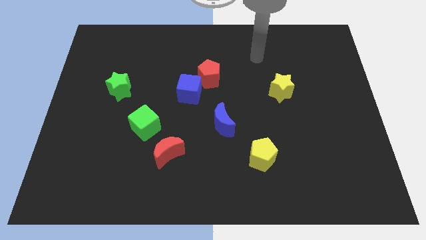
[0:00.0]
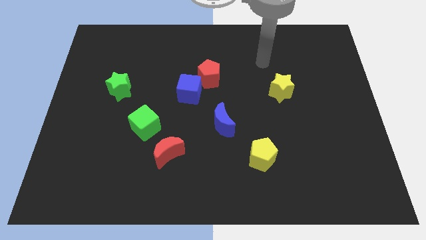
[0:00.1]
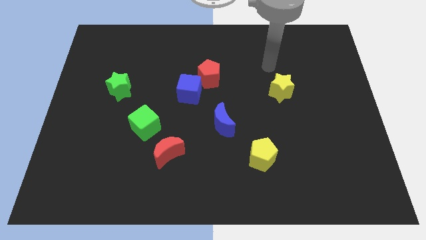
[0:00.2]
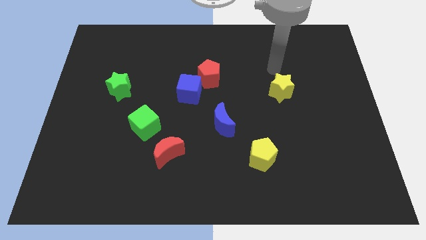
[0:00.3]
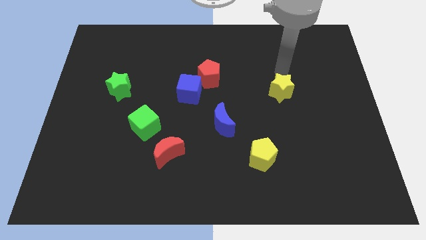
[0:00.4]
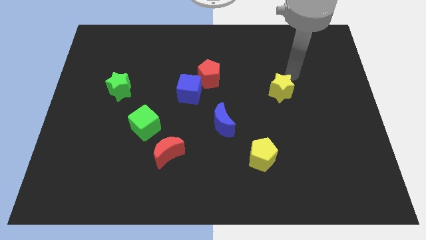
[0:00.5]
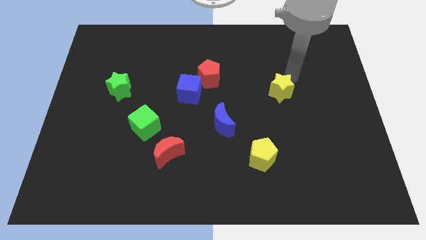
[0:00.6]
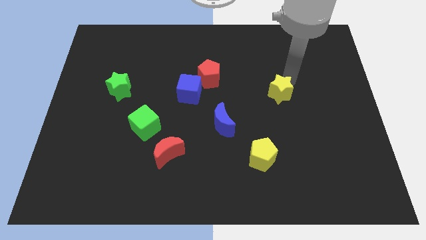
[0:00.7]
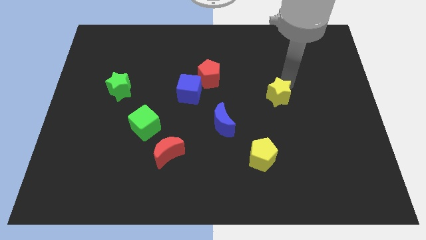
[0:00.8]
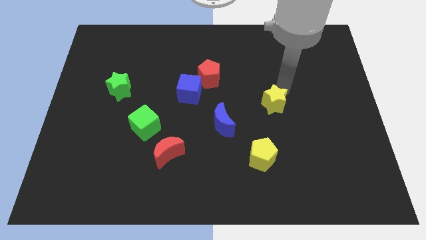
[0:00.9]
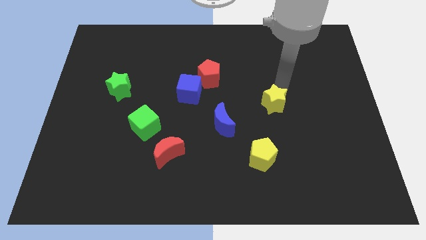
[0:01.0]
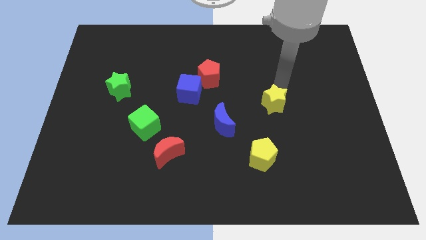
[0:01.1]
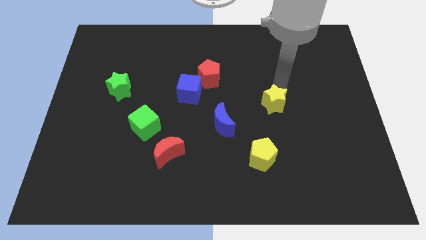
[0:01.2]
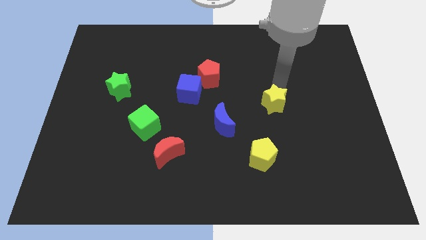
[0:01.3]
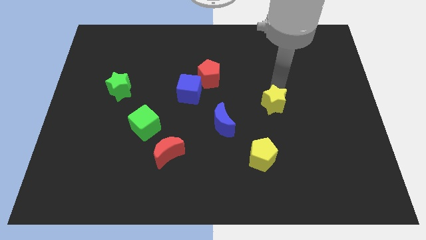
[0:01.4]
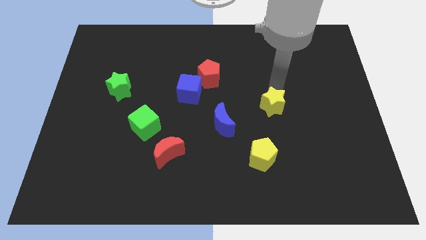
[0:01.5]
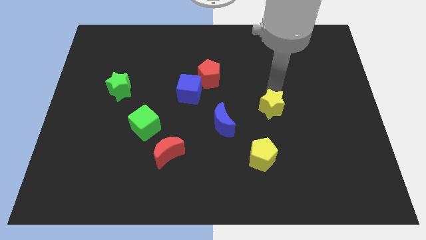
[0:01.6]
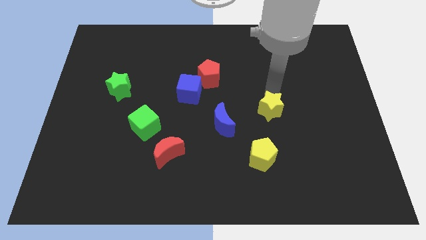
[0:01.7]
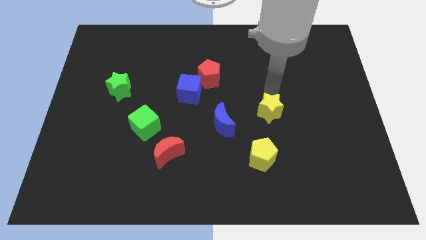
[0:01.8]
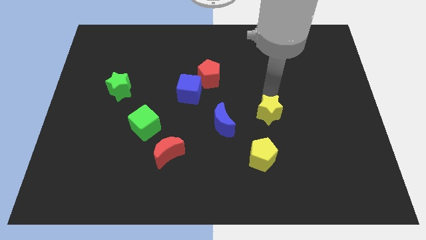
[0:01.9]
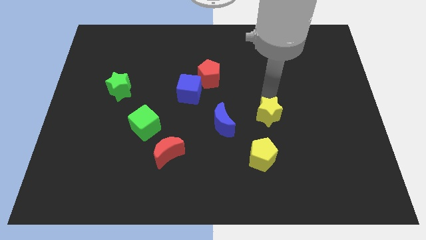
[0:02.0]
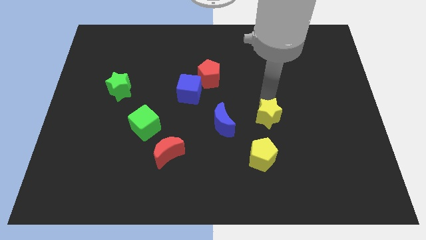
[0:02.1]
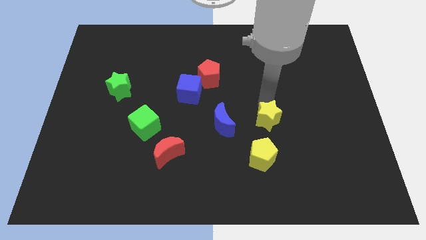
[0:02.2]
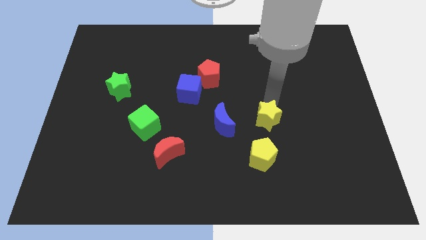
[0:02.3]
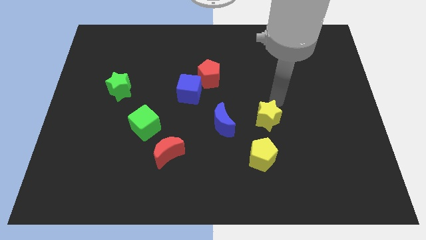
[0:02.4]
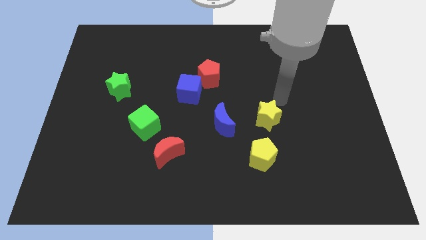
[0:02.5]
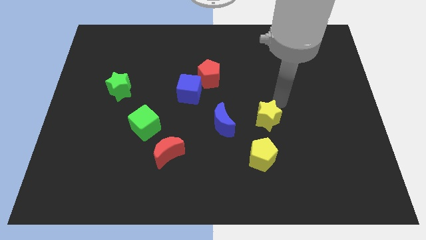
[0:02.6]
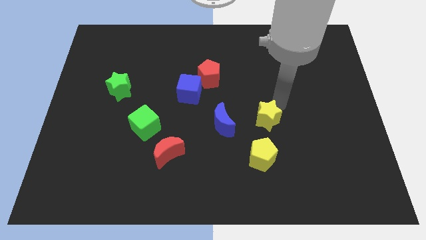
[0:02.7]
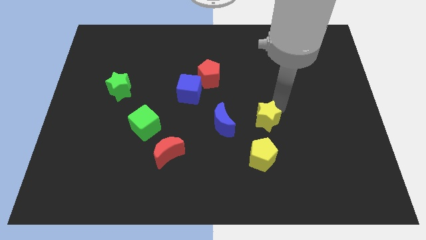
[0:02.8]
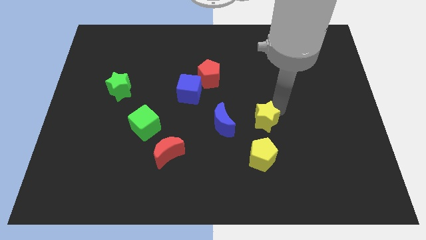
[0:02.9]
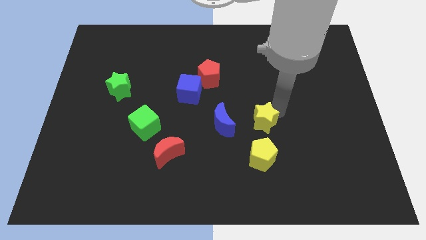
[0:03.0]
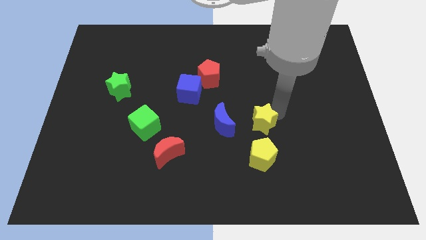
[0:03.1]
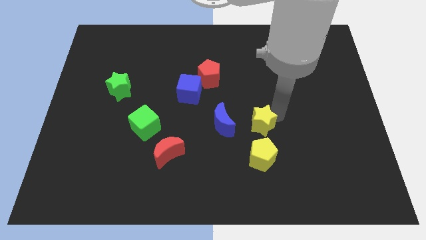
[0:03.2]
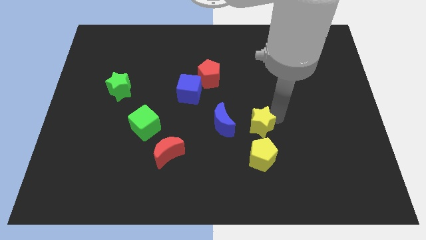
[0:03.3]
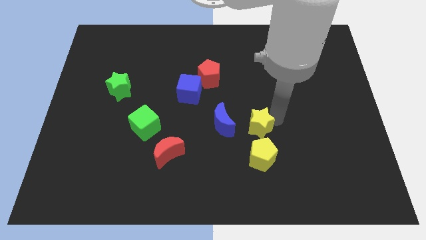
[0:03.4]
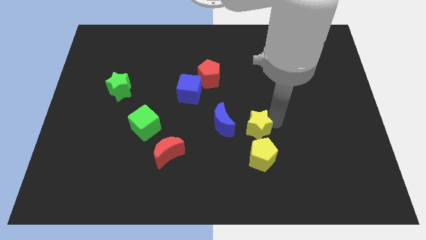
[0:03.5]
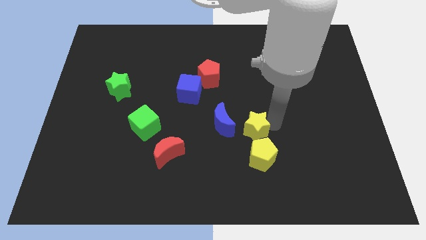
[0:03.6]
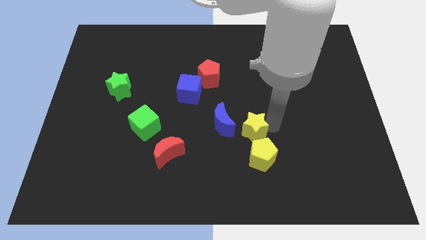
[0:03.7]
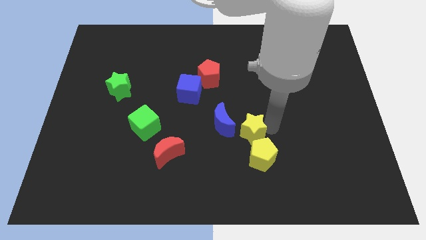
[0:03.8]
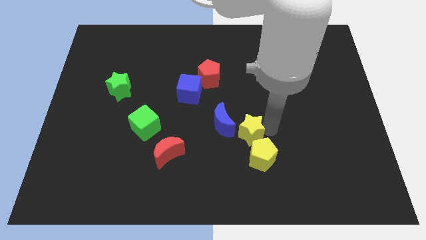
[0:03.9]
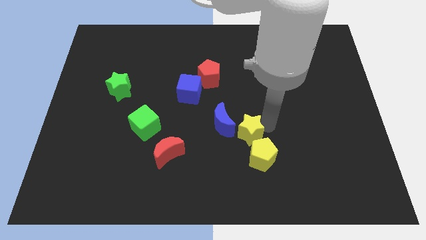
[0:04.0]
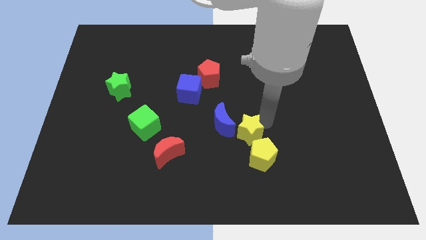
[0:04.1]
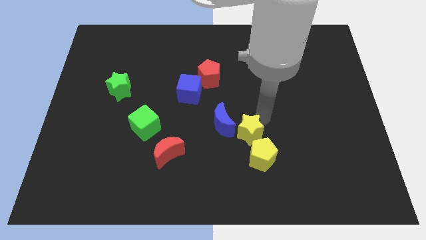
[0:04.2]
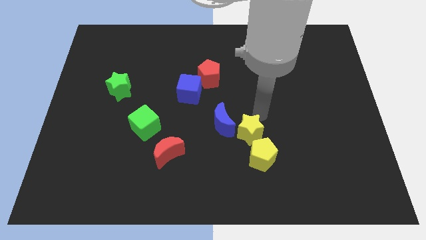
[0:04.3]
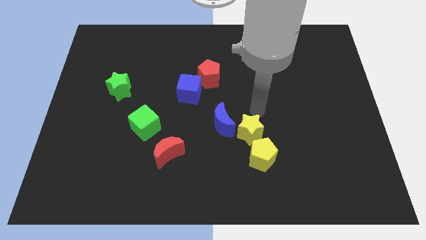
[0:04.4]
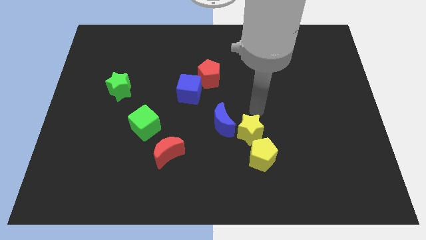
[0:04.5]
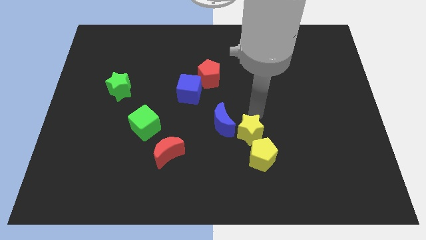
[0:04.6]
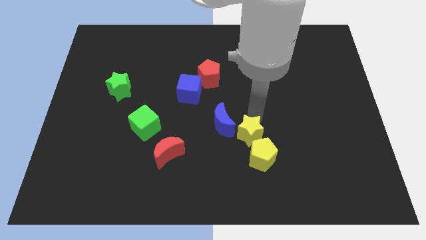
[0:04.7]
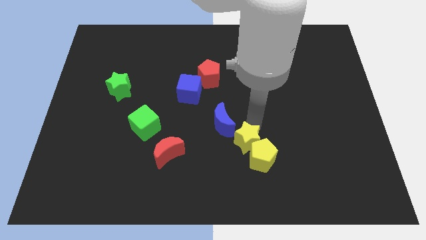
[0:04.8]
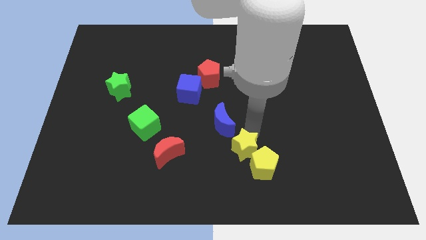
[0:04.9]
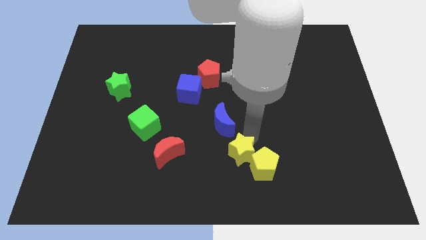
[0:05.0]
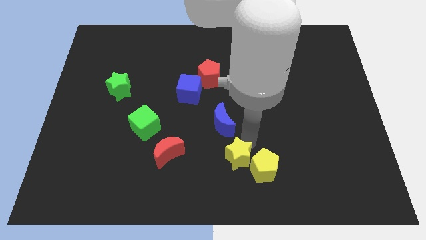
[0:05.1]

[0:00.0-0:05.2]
move the yellow star to the bottom

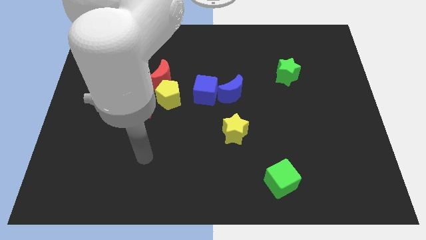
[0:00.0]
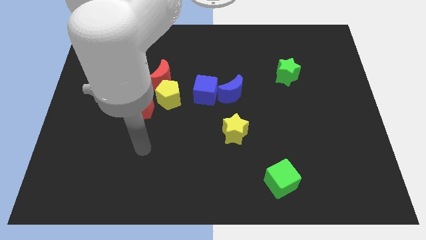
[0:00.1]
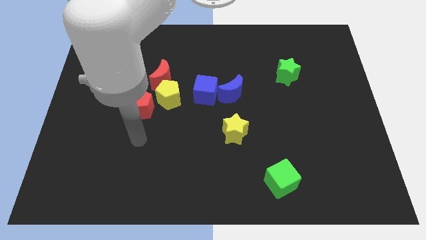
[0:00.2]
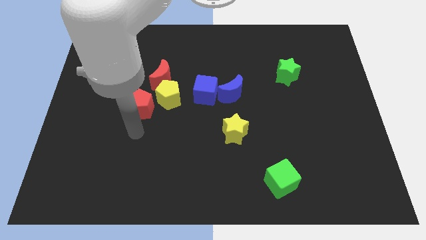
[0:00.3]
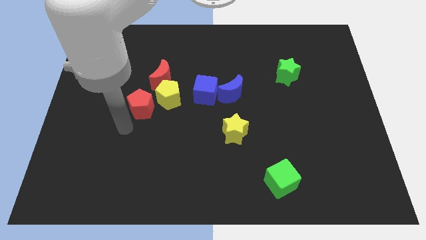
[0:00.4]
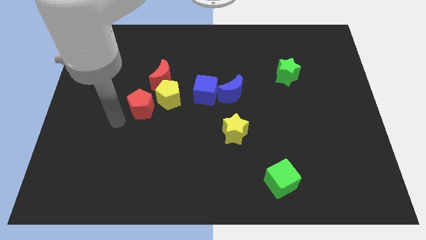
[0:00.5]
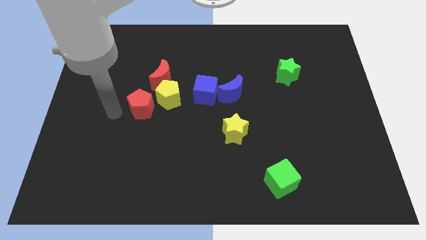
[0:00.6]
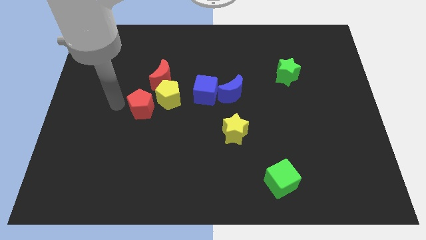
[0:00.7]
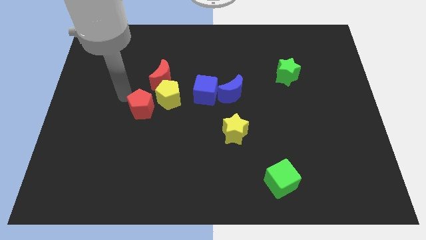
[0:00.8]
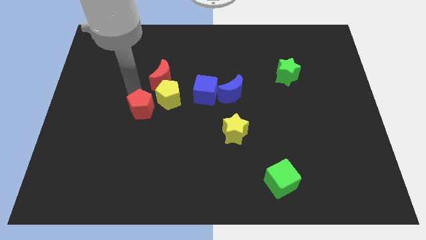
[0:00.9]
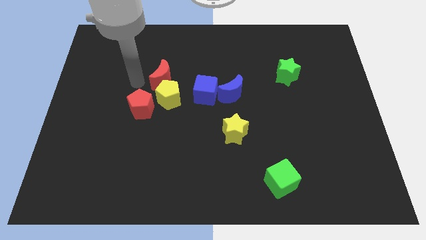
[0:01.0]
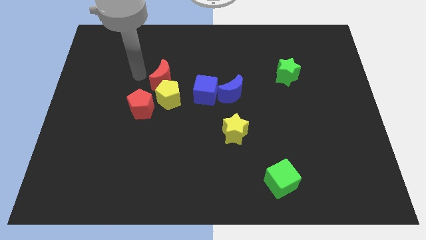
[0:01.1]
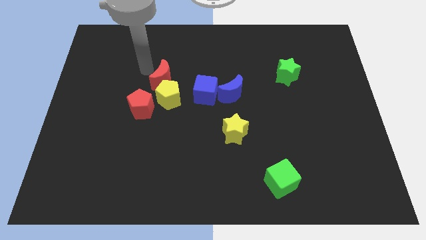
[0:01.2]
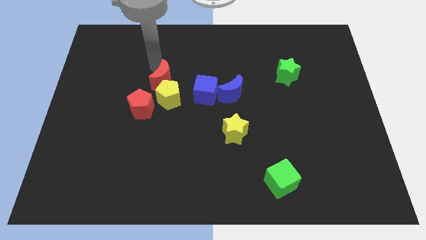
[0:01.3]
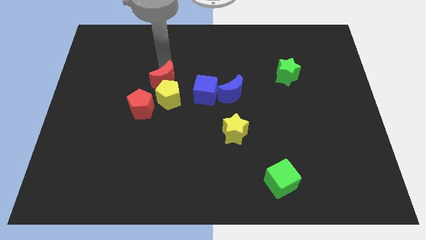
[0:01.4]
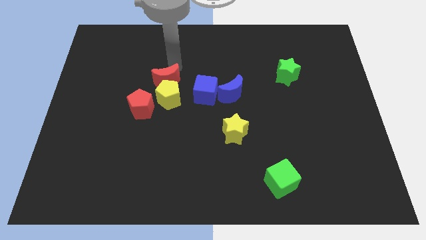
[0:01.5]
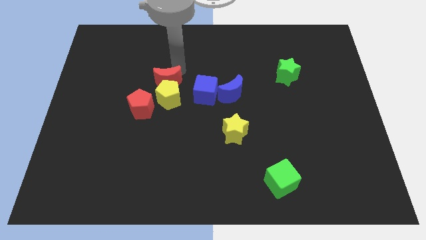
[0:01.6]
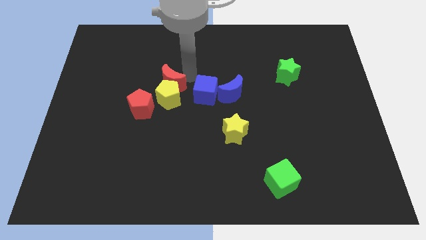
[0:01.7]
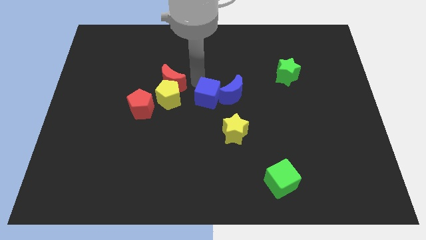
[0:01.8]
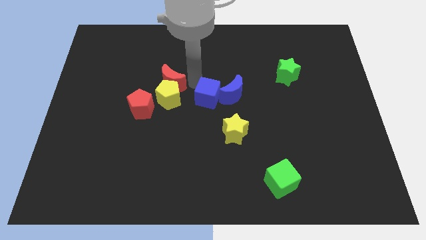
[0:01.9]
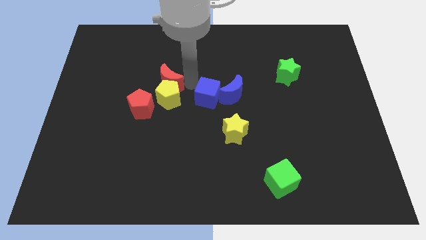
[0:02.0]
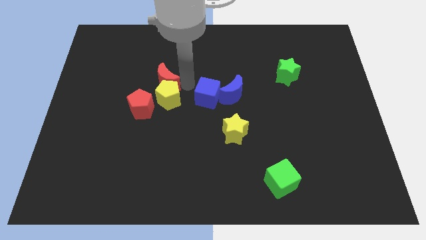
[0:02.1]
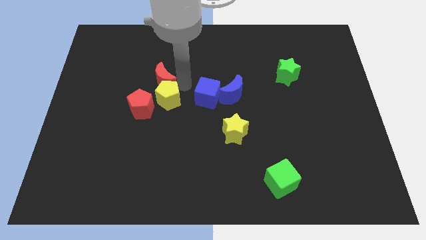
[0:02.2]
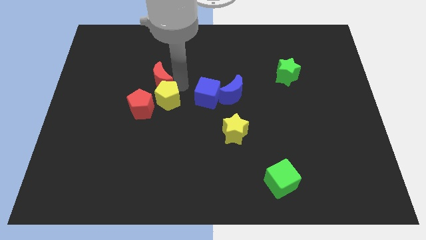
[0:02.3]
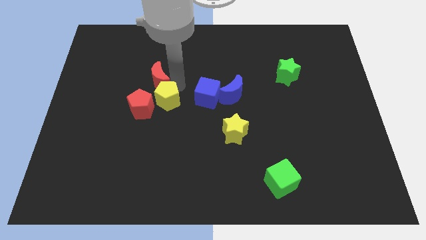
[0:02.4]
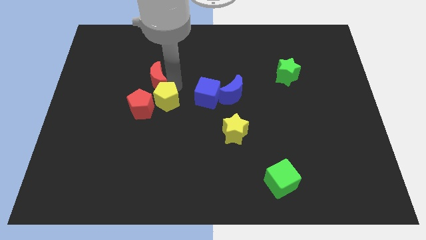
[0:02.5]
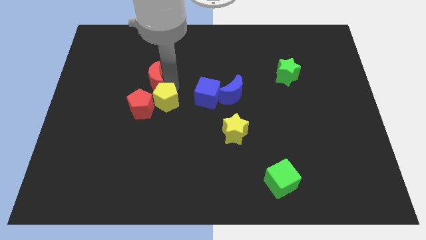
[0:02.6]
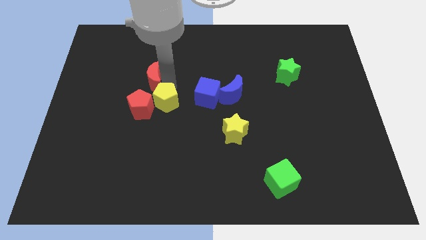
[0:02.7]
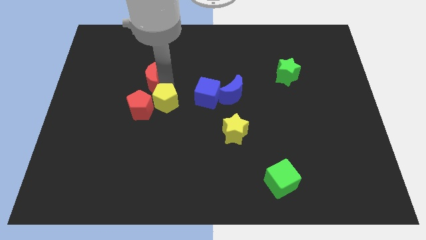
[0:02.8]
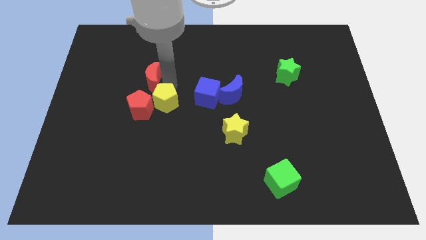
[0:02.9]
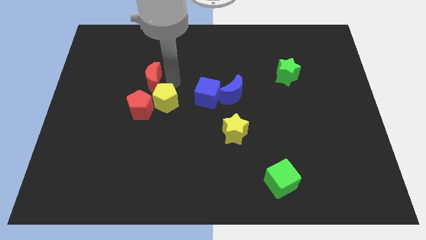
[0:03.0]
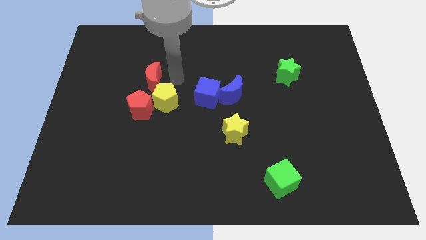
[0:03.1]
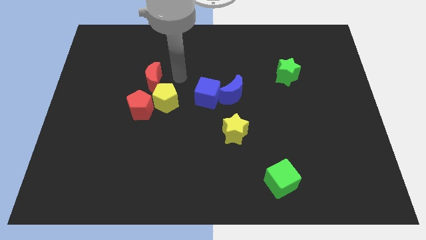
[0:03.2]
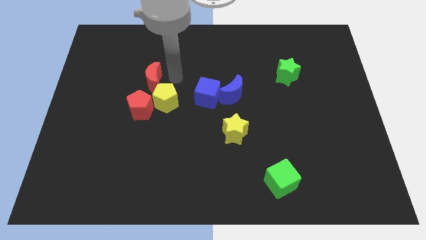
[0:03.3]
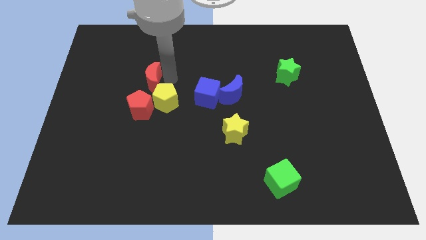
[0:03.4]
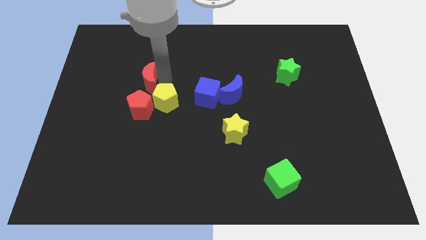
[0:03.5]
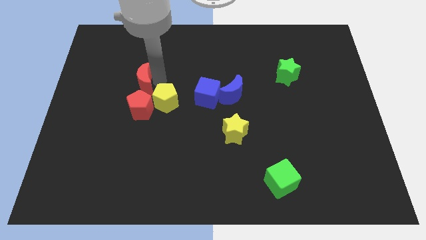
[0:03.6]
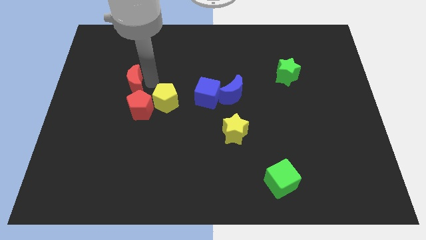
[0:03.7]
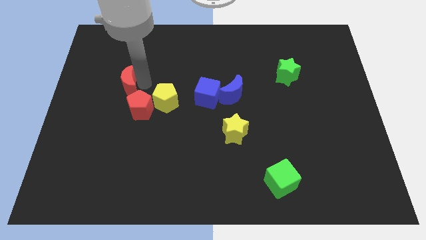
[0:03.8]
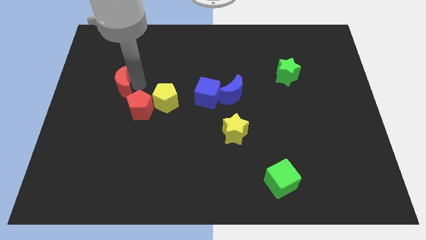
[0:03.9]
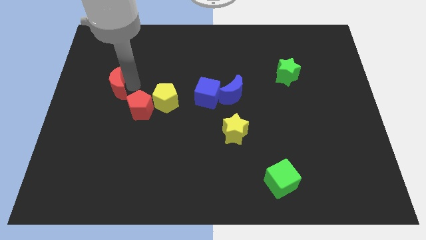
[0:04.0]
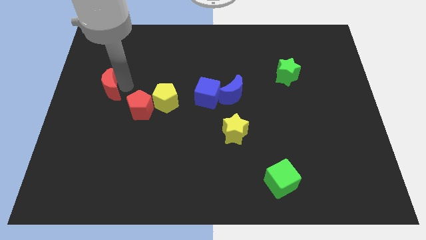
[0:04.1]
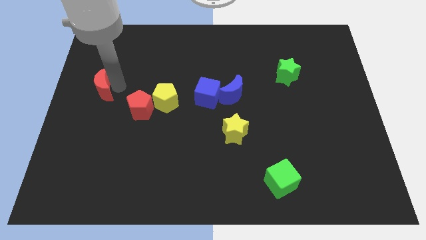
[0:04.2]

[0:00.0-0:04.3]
put the red moon to the left side
